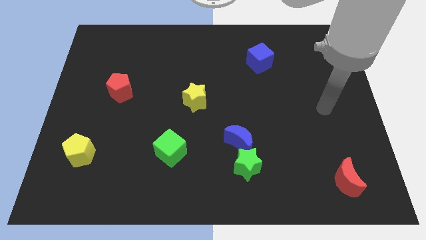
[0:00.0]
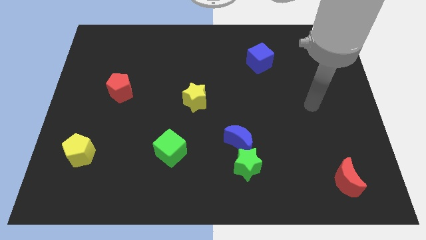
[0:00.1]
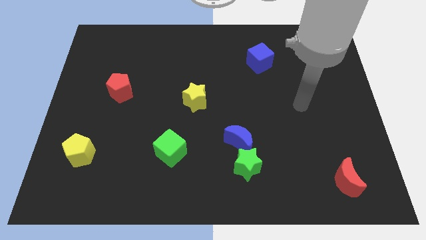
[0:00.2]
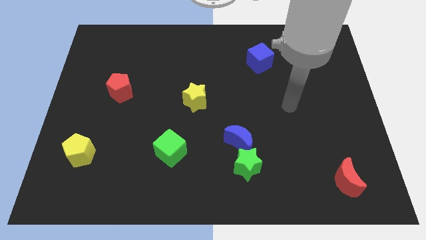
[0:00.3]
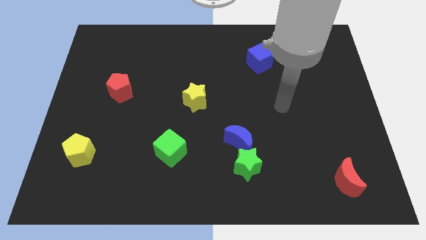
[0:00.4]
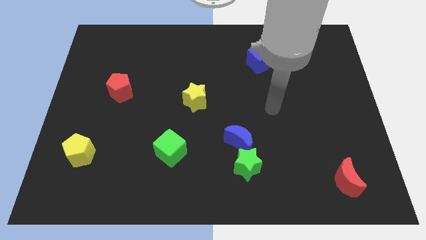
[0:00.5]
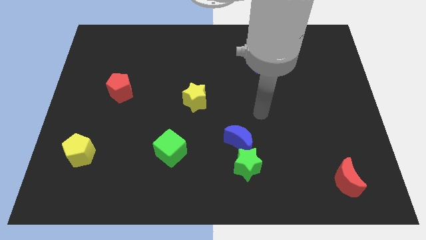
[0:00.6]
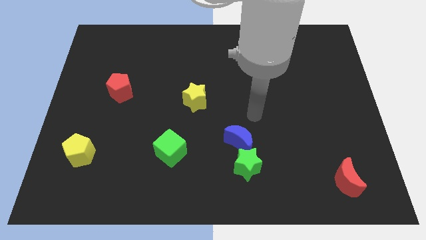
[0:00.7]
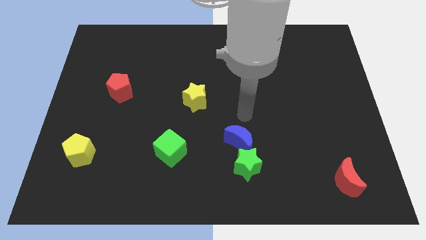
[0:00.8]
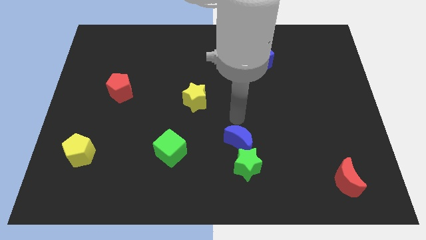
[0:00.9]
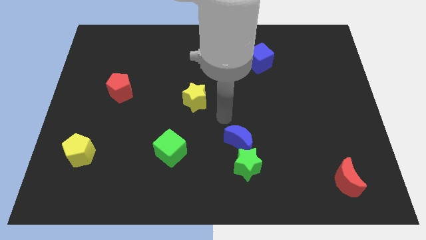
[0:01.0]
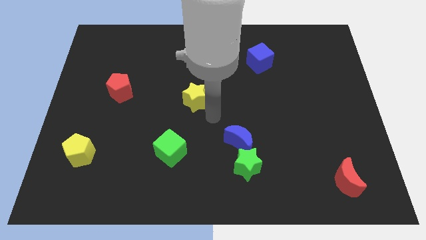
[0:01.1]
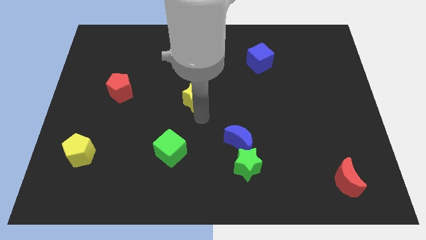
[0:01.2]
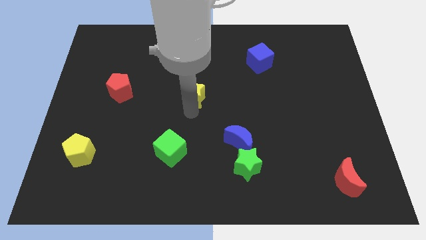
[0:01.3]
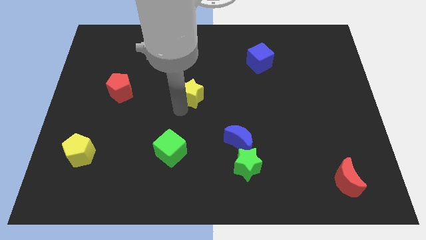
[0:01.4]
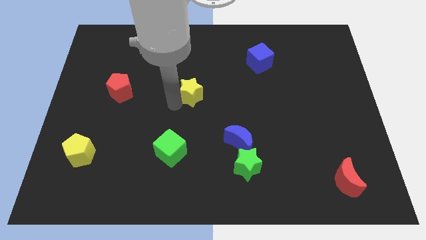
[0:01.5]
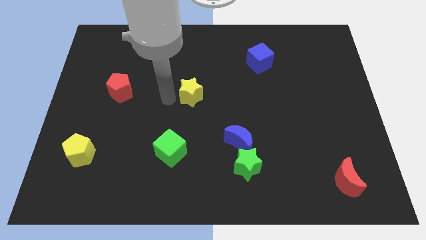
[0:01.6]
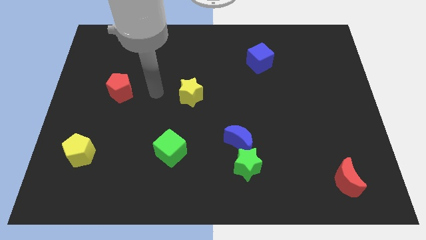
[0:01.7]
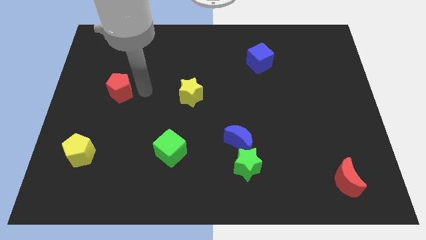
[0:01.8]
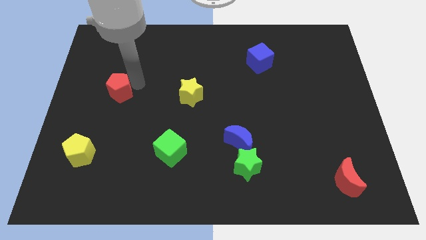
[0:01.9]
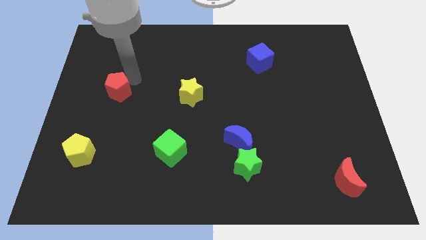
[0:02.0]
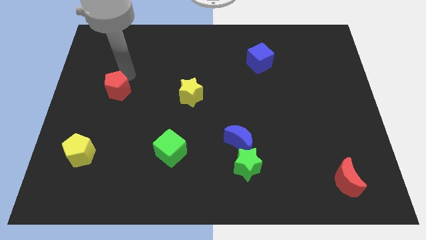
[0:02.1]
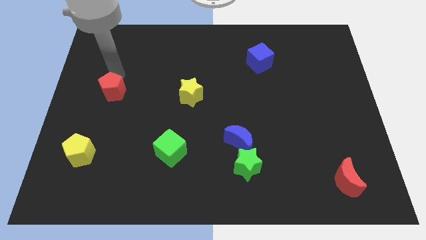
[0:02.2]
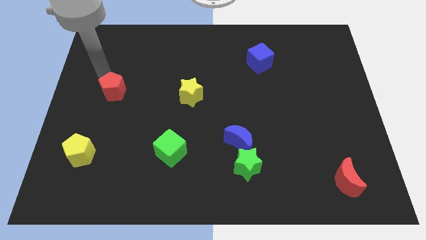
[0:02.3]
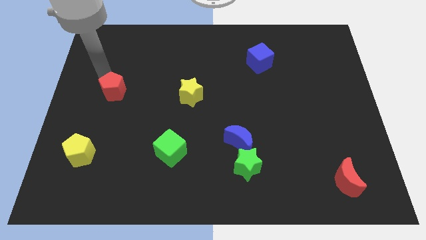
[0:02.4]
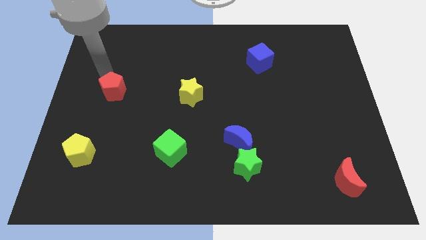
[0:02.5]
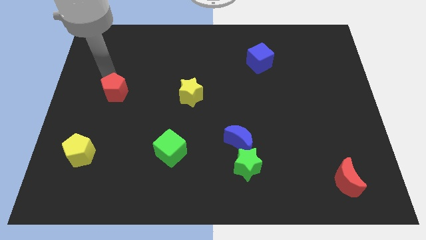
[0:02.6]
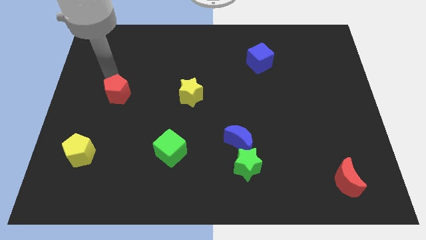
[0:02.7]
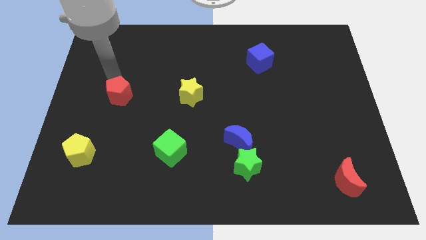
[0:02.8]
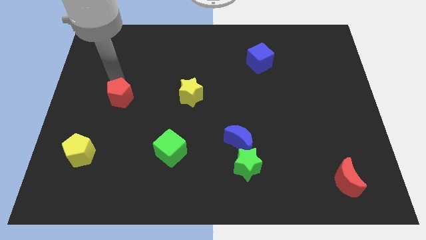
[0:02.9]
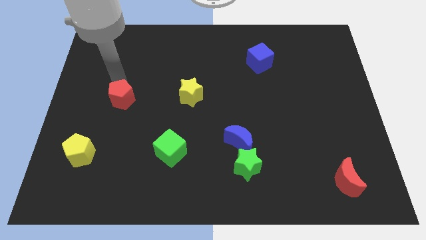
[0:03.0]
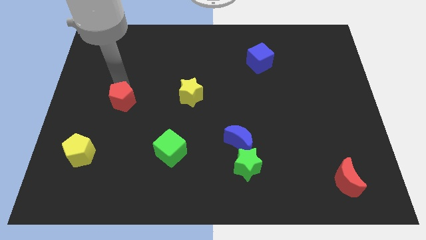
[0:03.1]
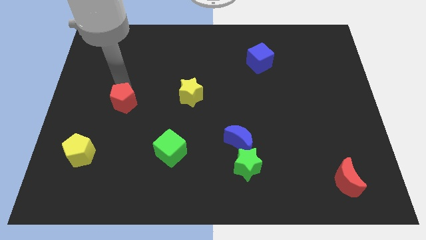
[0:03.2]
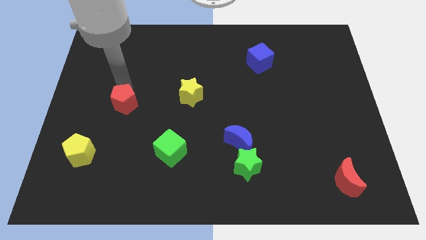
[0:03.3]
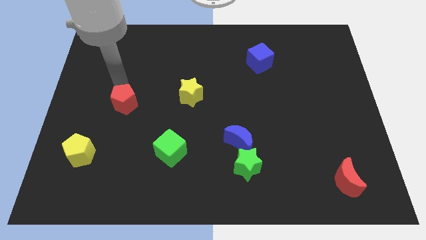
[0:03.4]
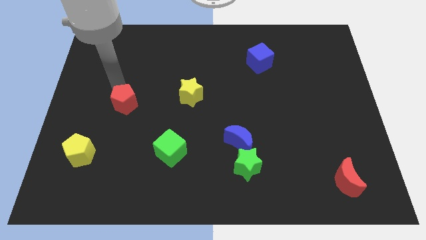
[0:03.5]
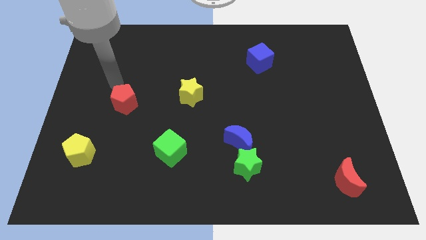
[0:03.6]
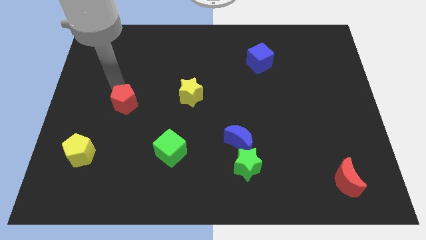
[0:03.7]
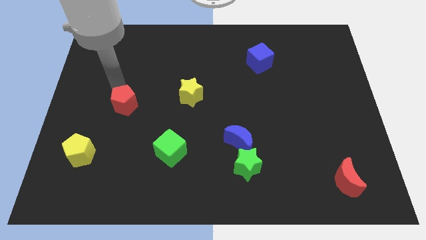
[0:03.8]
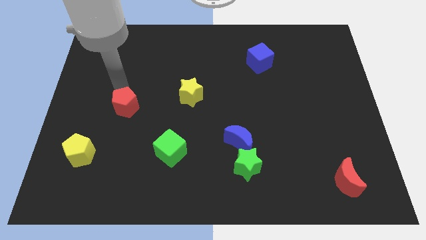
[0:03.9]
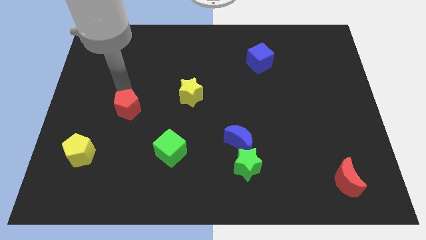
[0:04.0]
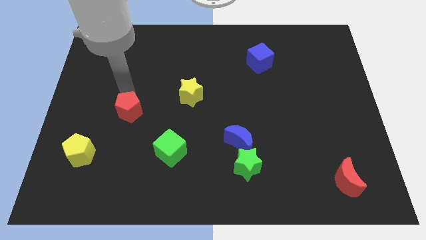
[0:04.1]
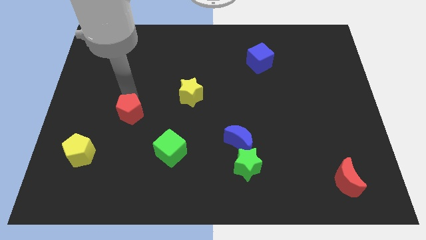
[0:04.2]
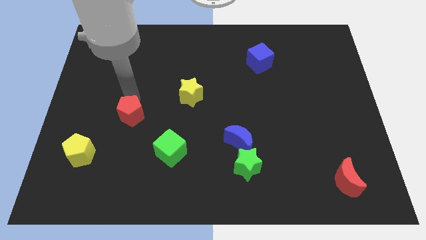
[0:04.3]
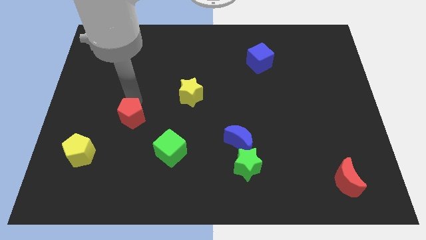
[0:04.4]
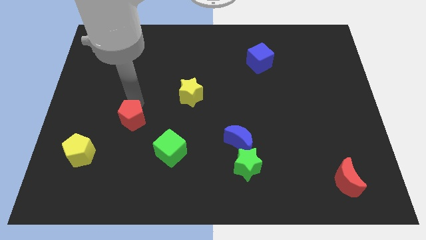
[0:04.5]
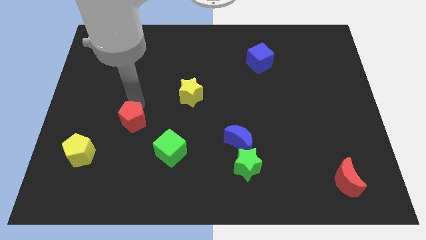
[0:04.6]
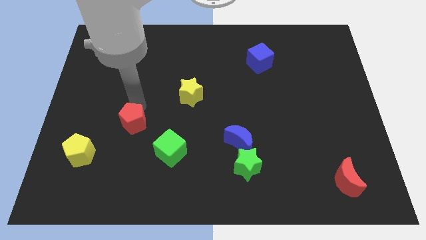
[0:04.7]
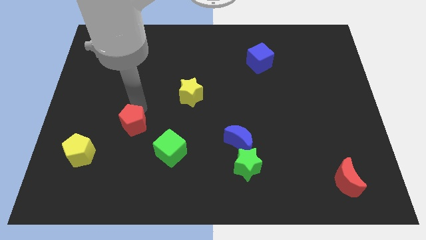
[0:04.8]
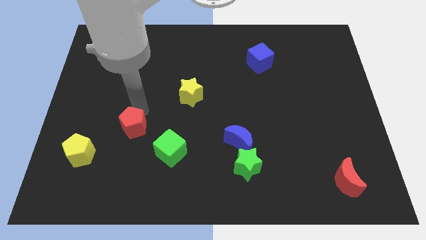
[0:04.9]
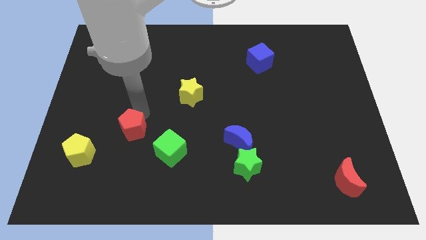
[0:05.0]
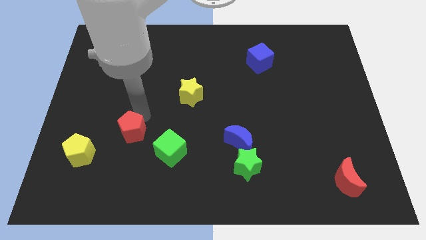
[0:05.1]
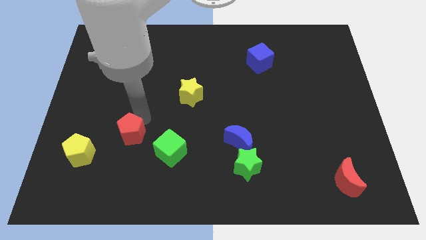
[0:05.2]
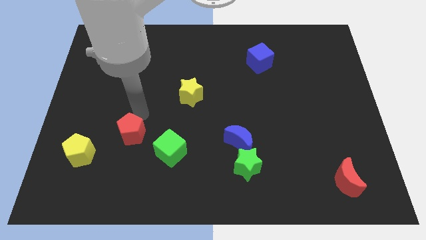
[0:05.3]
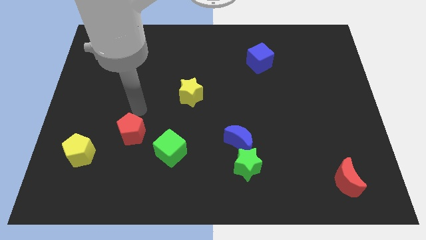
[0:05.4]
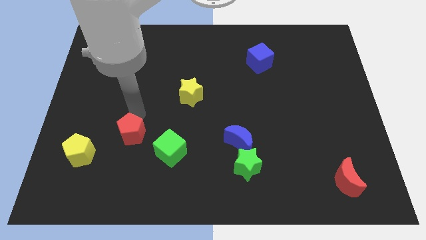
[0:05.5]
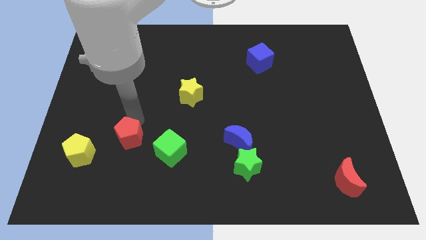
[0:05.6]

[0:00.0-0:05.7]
slide the red pentagon to the right side of the yellow pentagon

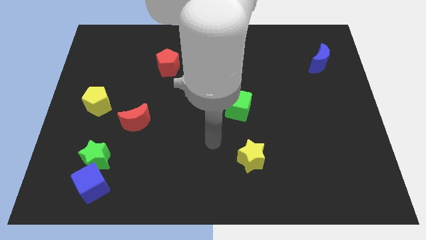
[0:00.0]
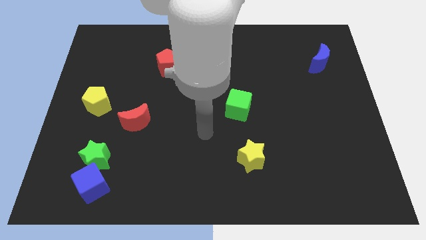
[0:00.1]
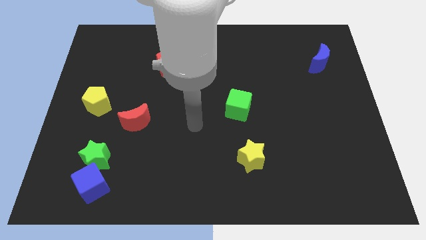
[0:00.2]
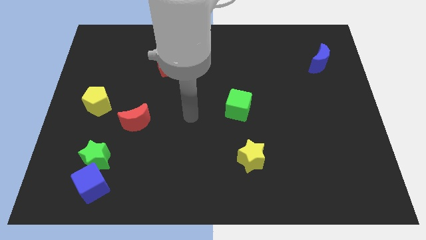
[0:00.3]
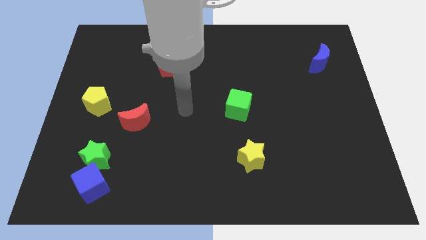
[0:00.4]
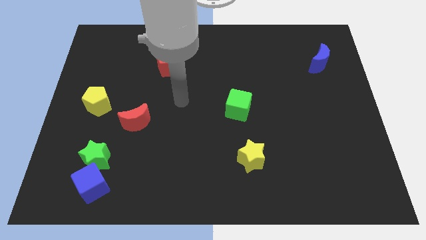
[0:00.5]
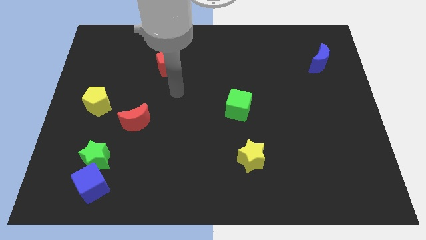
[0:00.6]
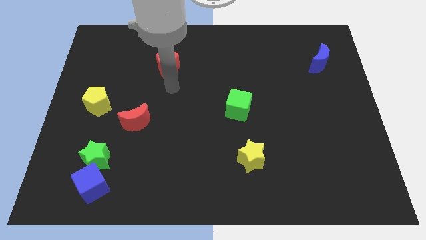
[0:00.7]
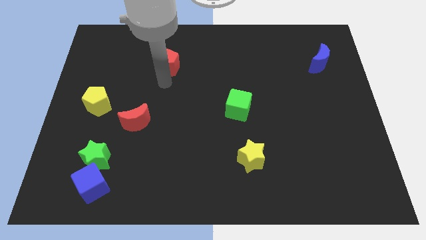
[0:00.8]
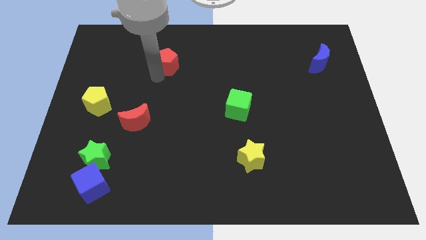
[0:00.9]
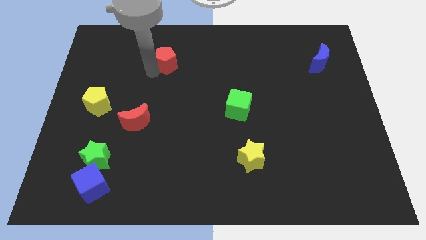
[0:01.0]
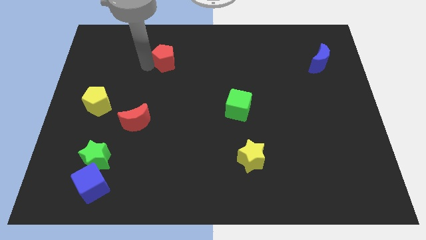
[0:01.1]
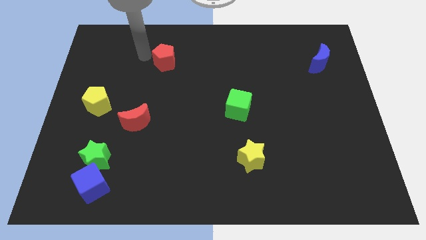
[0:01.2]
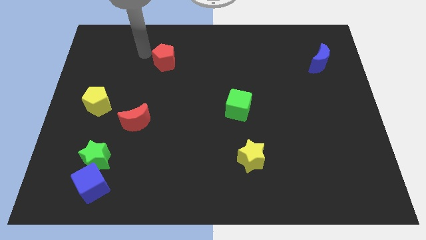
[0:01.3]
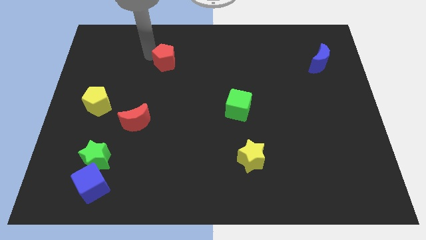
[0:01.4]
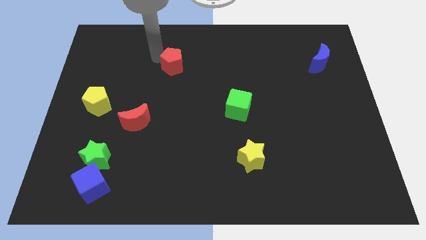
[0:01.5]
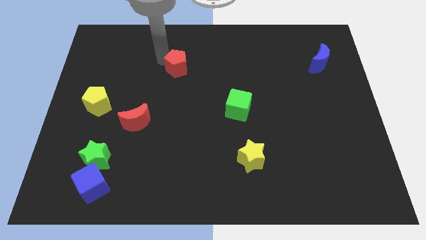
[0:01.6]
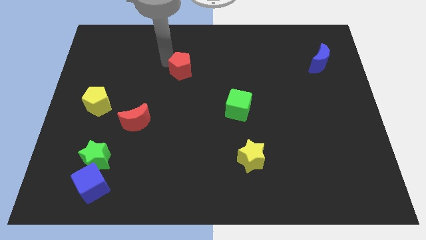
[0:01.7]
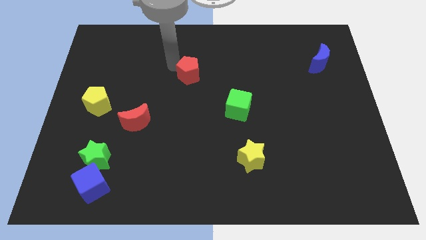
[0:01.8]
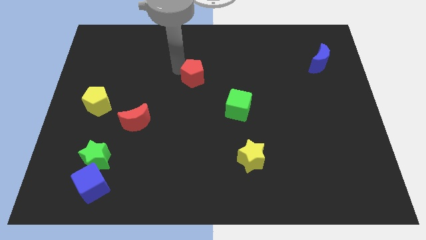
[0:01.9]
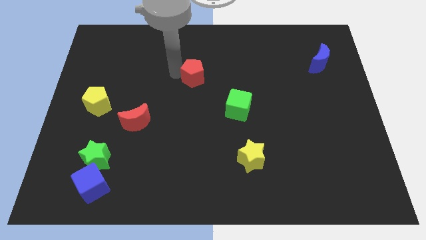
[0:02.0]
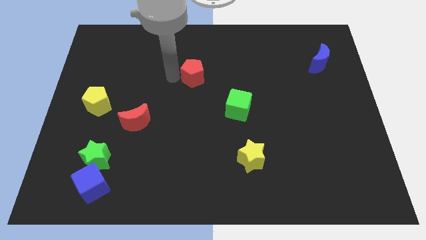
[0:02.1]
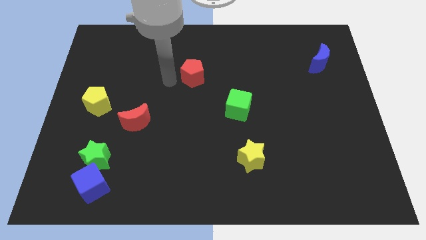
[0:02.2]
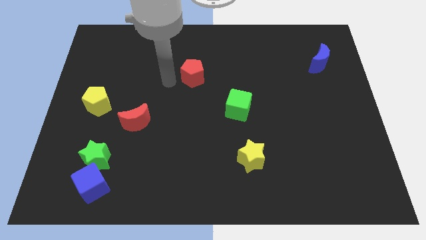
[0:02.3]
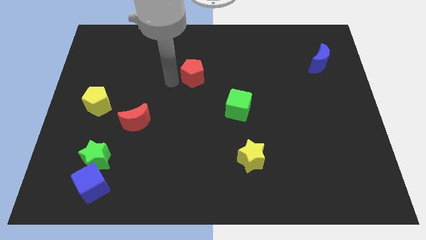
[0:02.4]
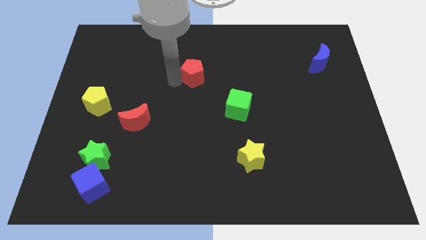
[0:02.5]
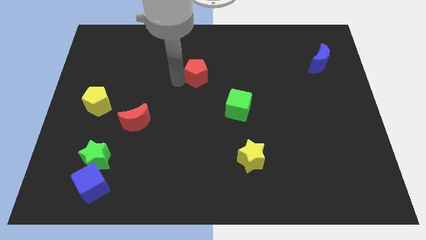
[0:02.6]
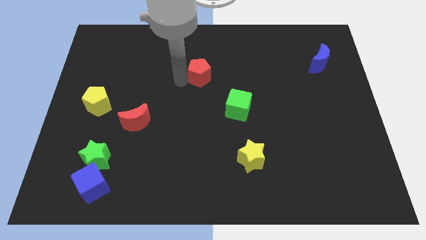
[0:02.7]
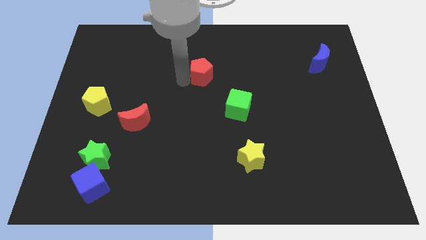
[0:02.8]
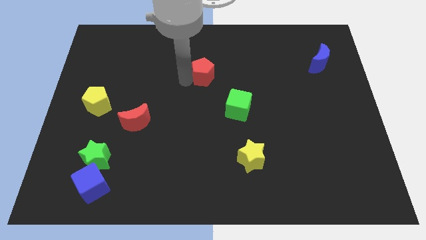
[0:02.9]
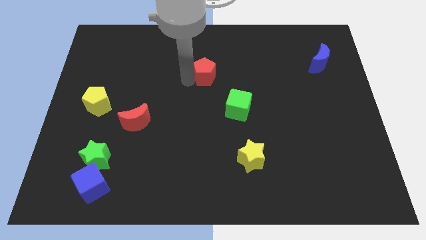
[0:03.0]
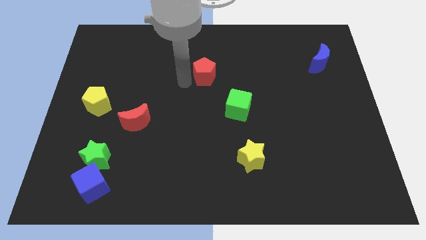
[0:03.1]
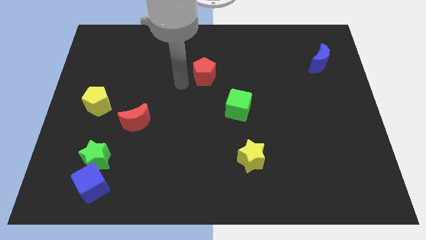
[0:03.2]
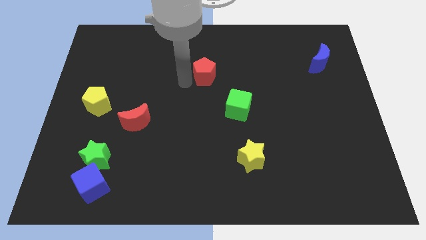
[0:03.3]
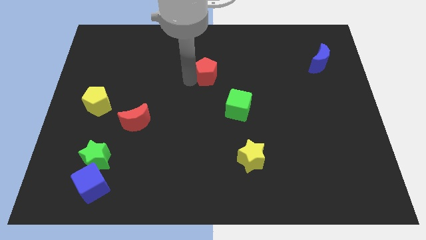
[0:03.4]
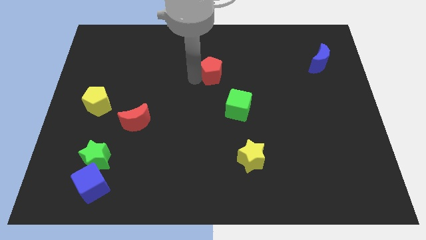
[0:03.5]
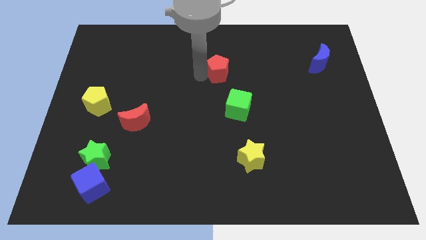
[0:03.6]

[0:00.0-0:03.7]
move the red pentagon to the top side of the green cube
